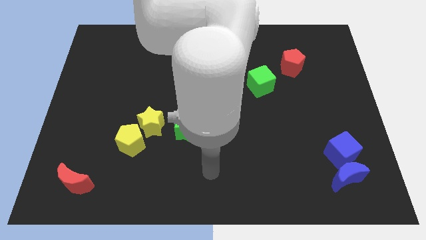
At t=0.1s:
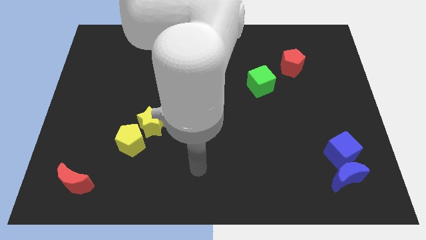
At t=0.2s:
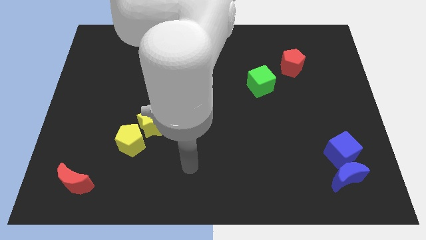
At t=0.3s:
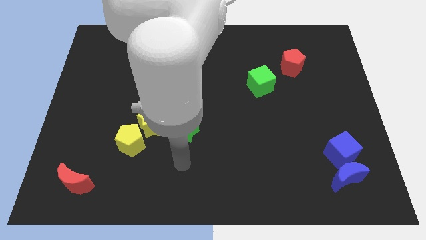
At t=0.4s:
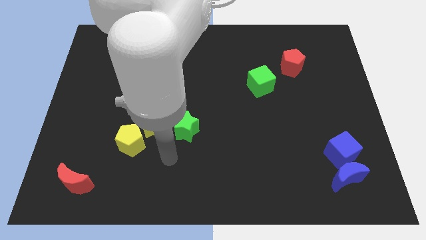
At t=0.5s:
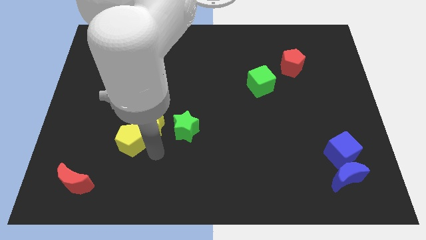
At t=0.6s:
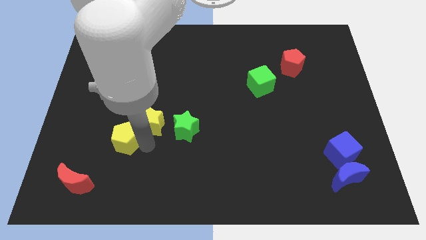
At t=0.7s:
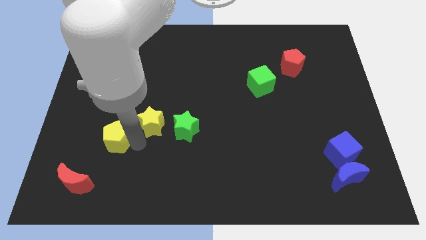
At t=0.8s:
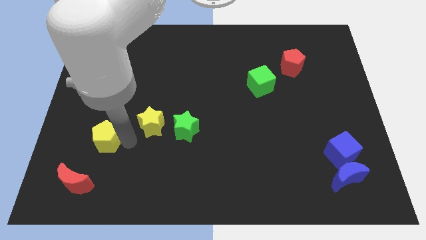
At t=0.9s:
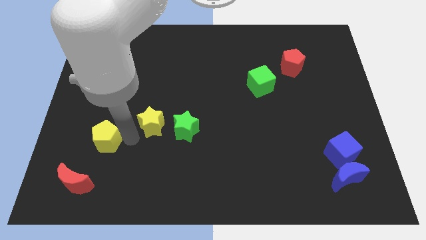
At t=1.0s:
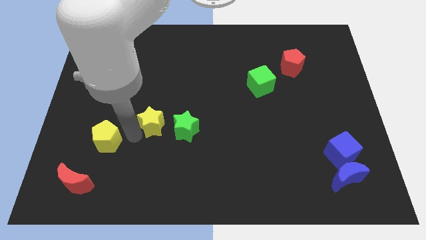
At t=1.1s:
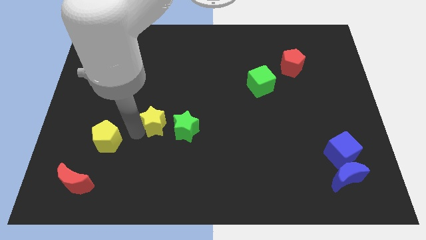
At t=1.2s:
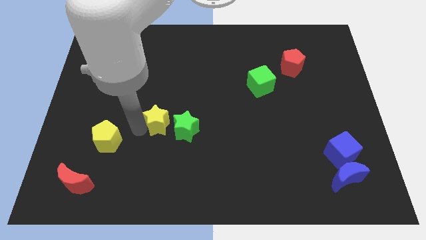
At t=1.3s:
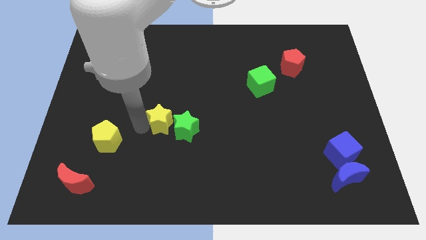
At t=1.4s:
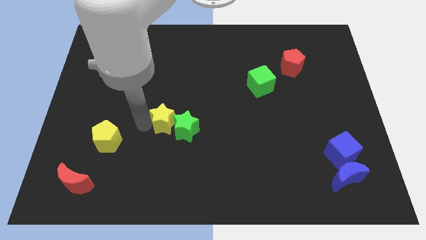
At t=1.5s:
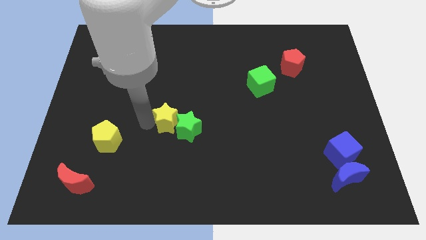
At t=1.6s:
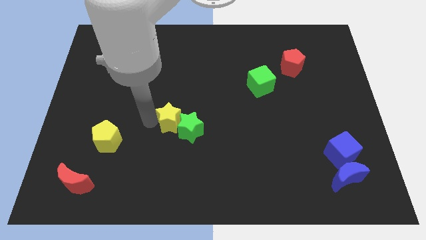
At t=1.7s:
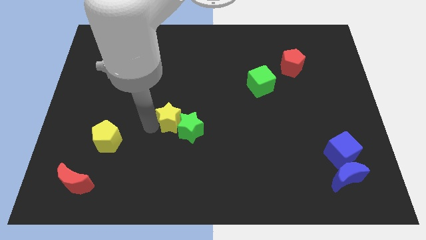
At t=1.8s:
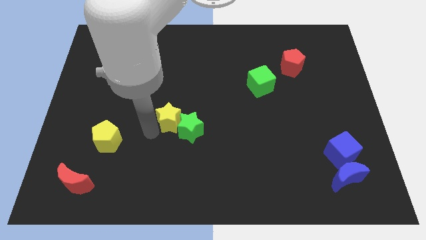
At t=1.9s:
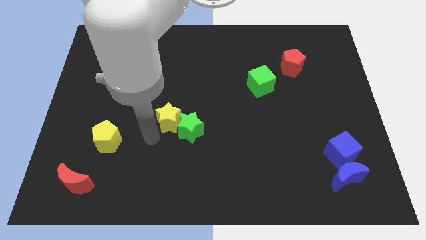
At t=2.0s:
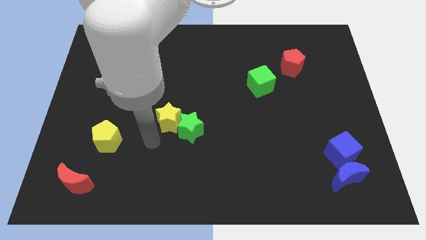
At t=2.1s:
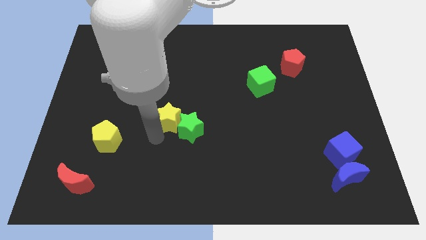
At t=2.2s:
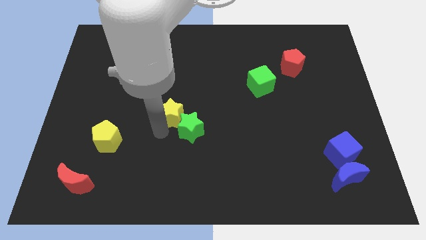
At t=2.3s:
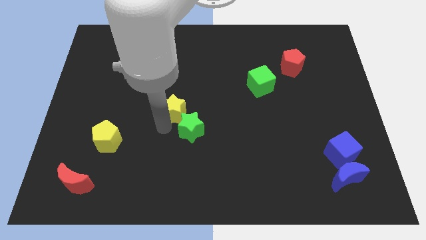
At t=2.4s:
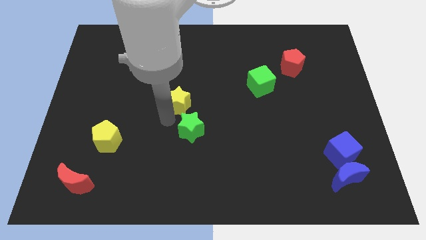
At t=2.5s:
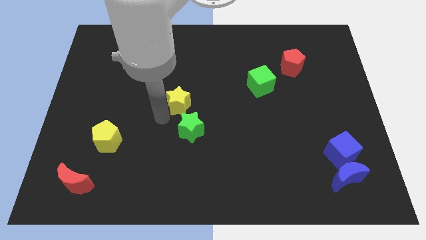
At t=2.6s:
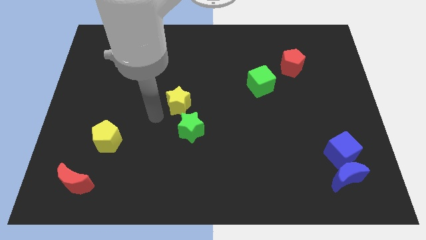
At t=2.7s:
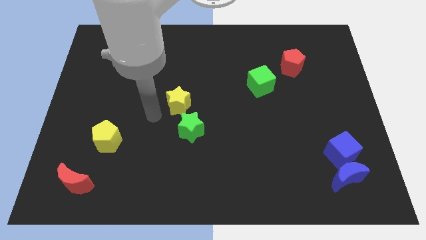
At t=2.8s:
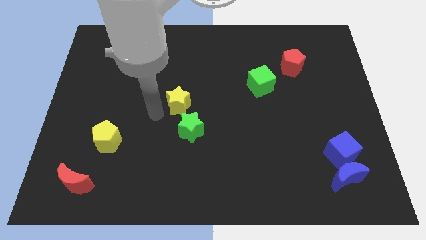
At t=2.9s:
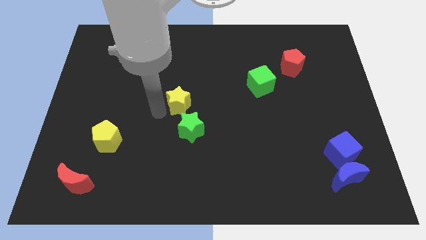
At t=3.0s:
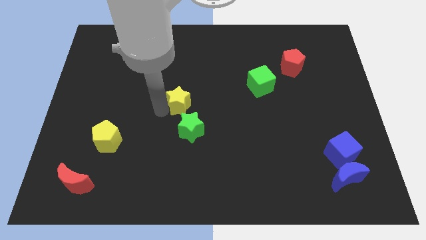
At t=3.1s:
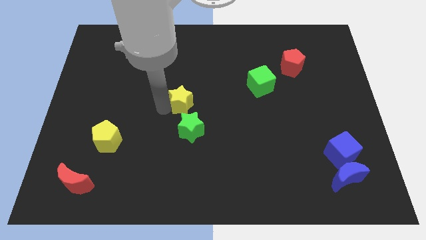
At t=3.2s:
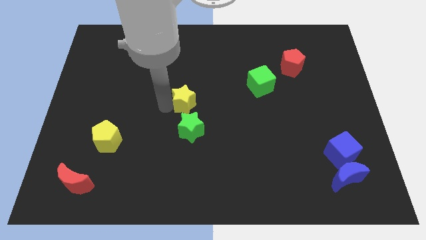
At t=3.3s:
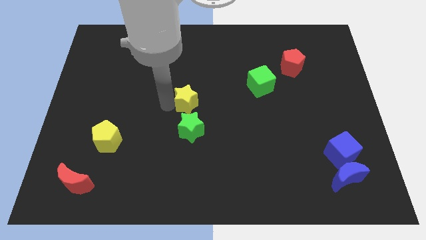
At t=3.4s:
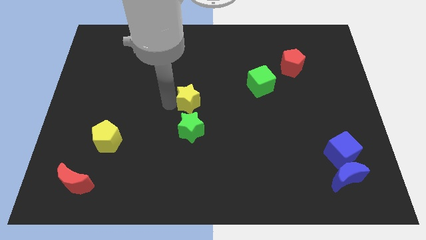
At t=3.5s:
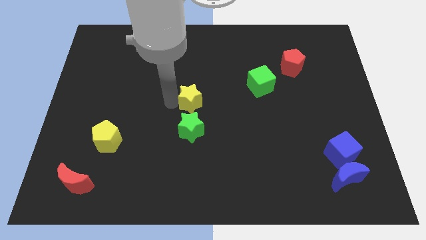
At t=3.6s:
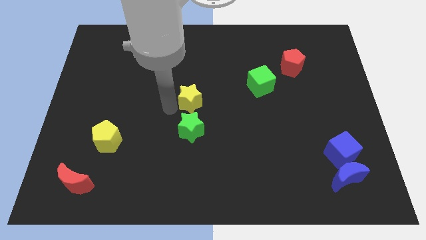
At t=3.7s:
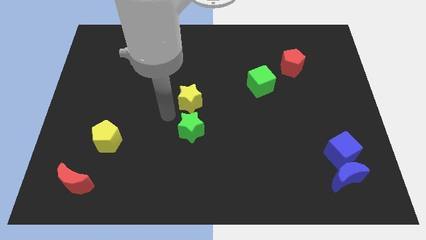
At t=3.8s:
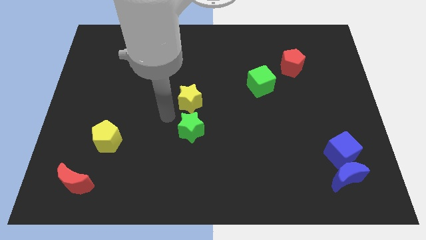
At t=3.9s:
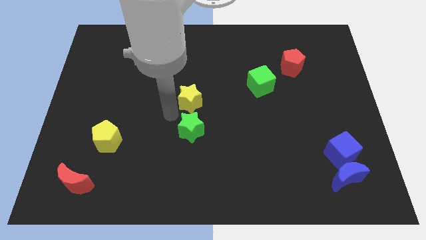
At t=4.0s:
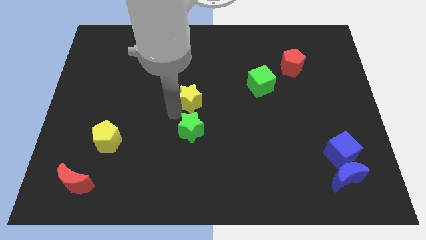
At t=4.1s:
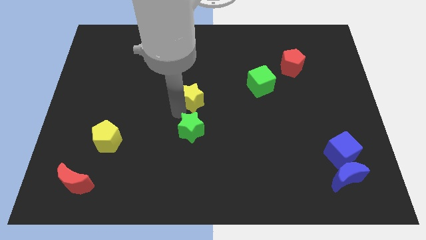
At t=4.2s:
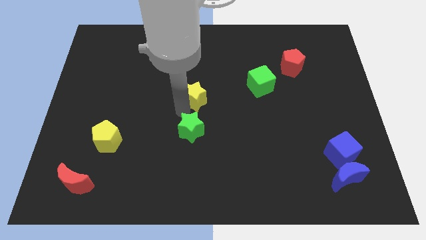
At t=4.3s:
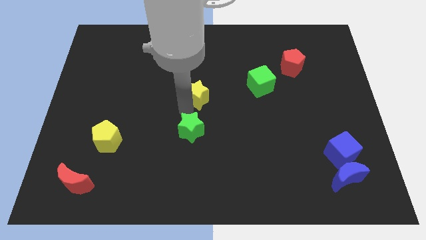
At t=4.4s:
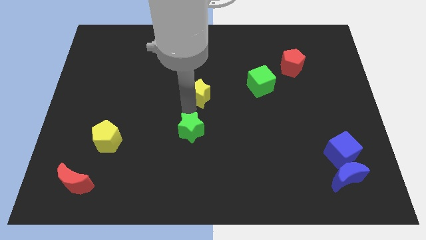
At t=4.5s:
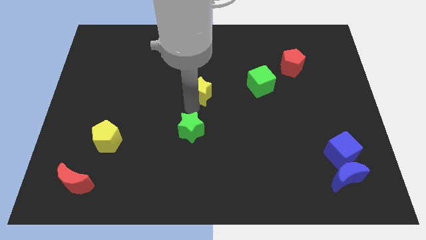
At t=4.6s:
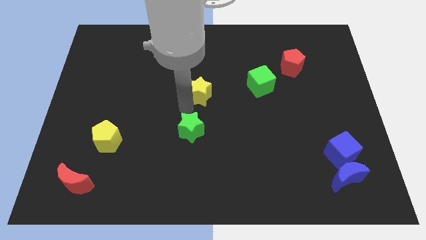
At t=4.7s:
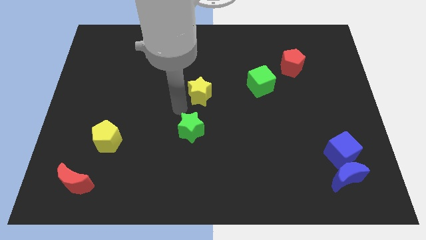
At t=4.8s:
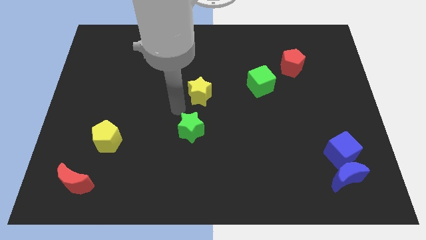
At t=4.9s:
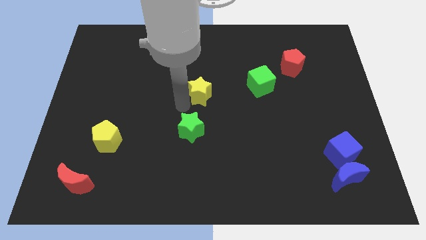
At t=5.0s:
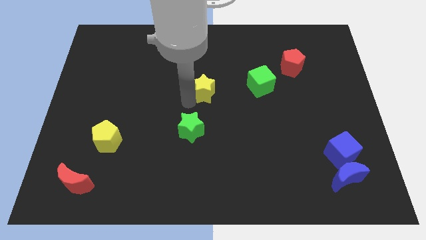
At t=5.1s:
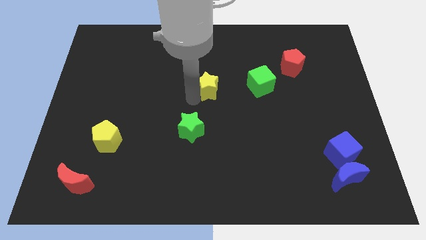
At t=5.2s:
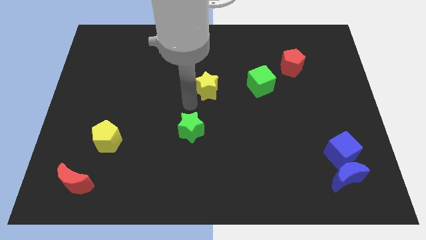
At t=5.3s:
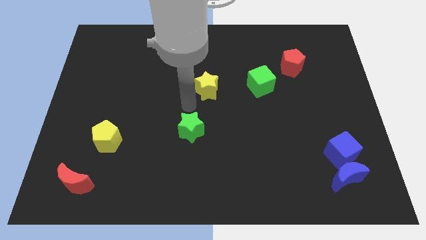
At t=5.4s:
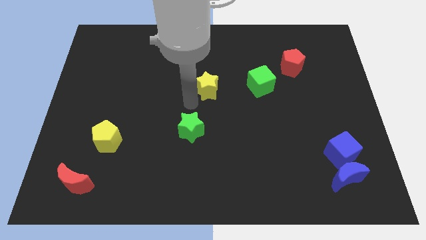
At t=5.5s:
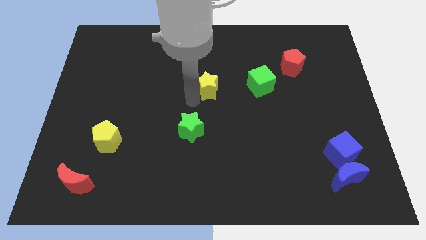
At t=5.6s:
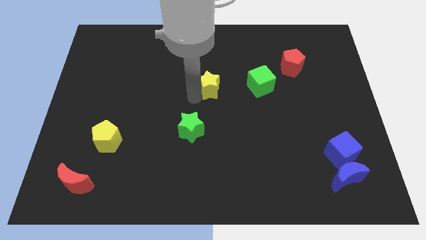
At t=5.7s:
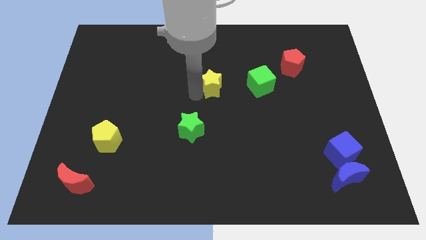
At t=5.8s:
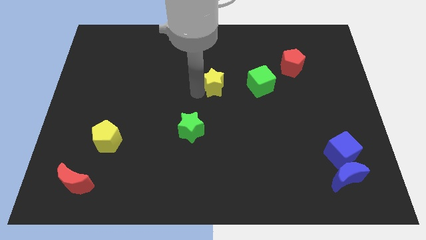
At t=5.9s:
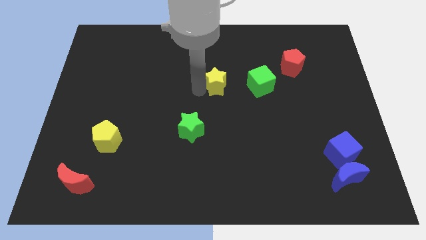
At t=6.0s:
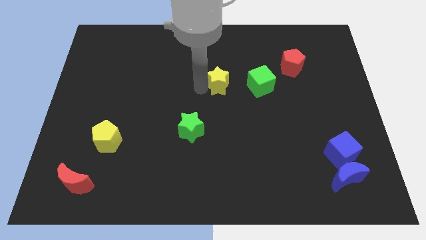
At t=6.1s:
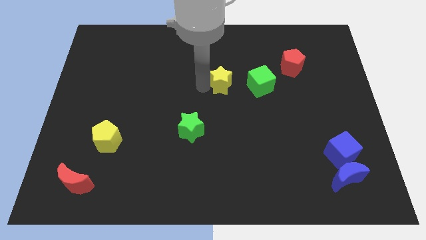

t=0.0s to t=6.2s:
move the yellow star upwards and right

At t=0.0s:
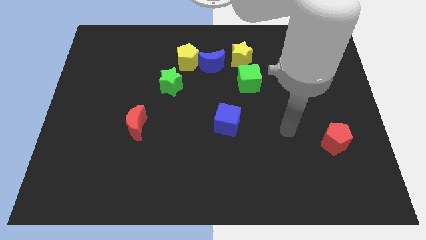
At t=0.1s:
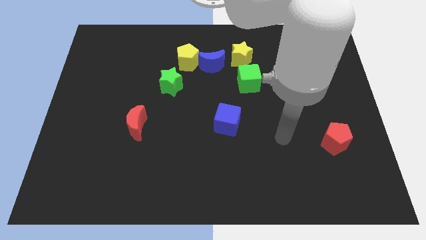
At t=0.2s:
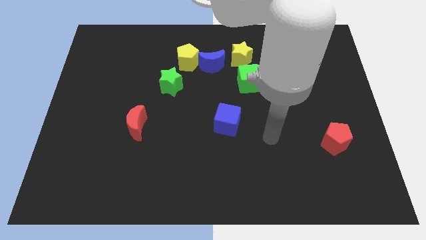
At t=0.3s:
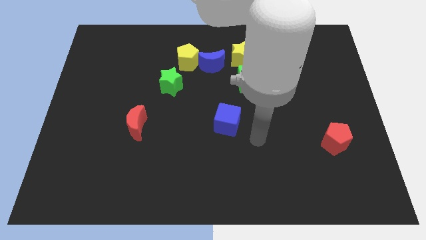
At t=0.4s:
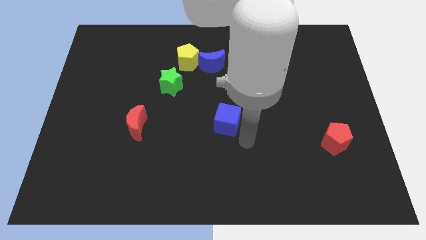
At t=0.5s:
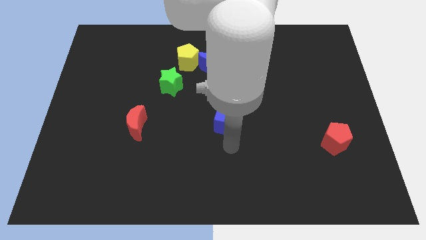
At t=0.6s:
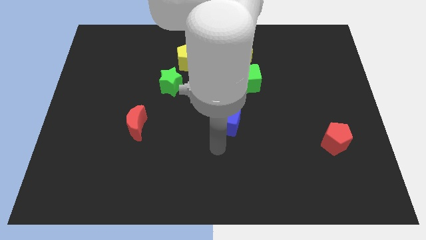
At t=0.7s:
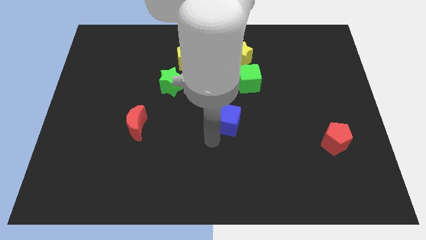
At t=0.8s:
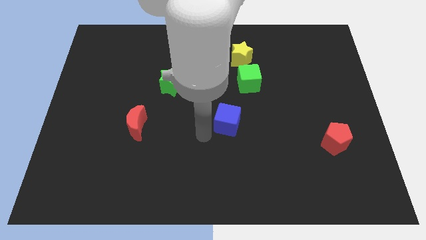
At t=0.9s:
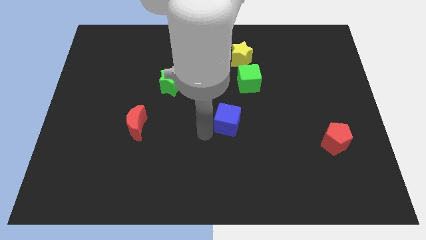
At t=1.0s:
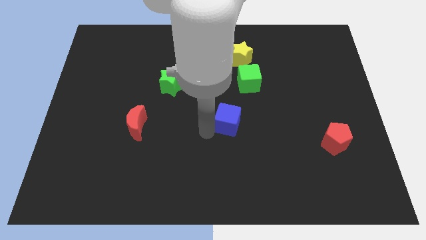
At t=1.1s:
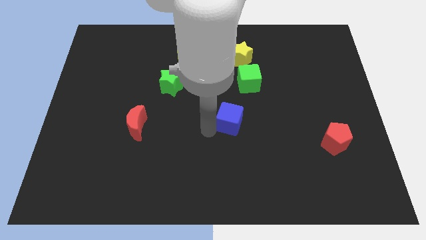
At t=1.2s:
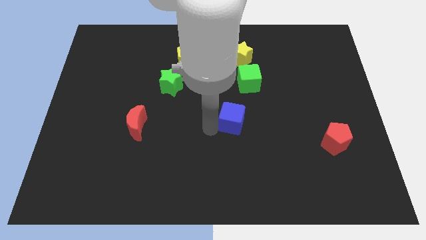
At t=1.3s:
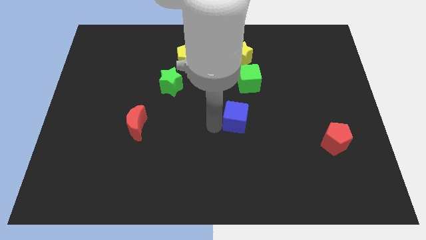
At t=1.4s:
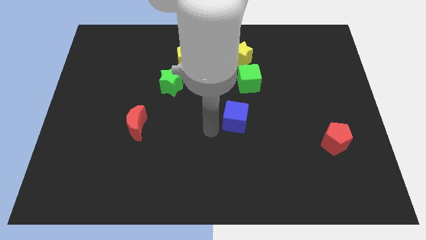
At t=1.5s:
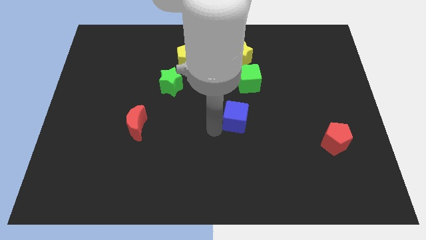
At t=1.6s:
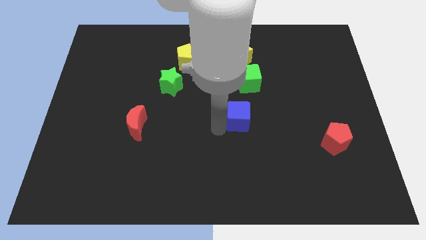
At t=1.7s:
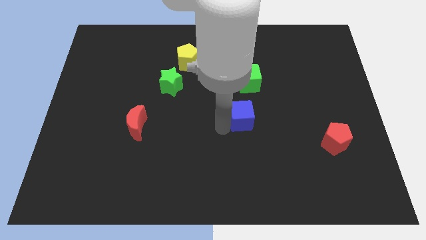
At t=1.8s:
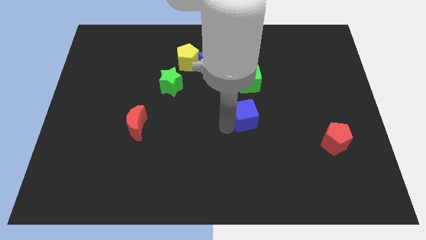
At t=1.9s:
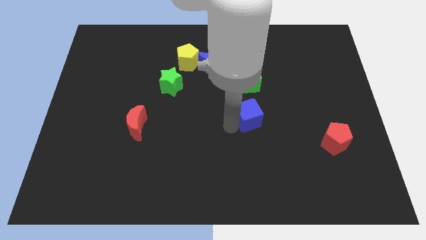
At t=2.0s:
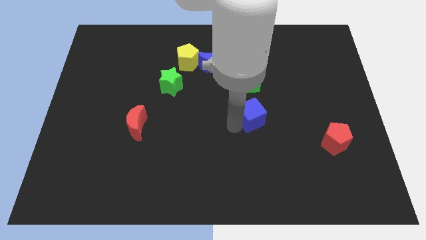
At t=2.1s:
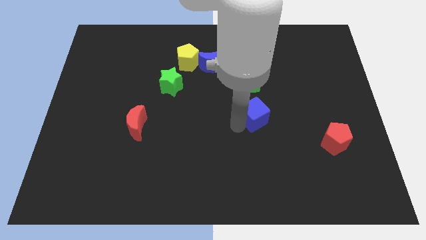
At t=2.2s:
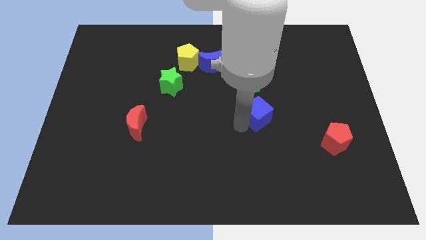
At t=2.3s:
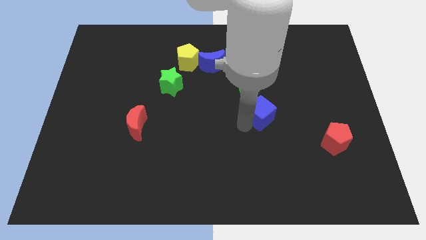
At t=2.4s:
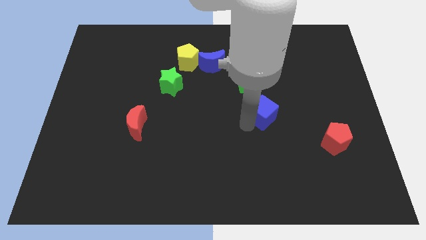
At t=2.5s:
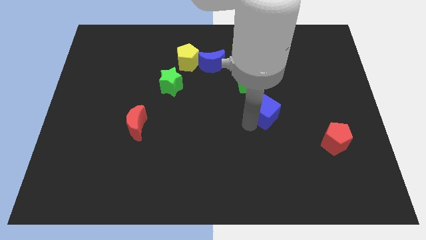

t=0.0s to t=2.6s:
push the blue cube somewhat diagonally upwards and right
